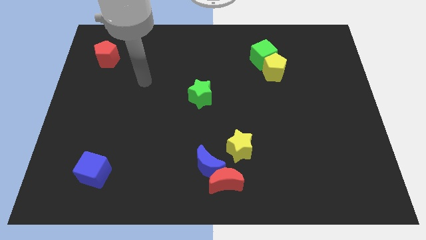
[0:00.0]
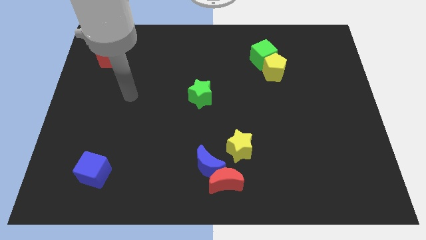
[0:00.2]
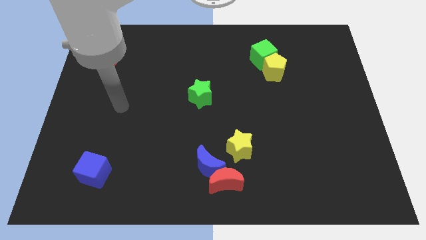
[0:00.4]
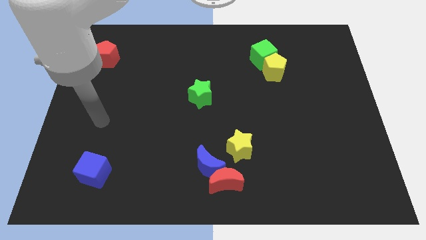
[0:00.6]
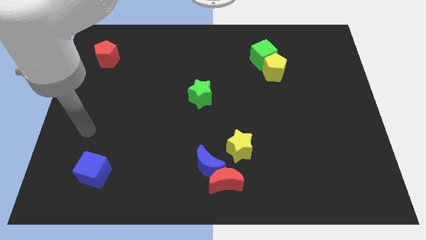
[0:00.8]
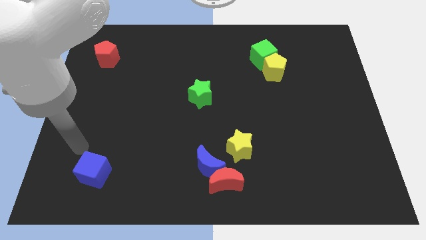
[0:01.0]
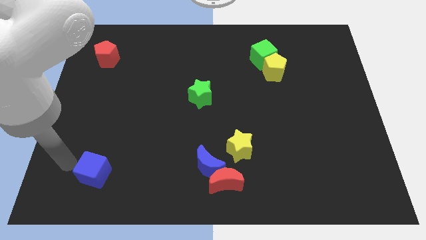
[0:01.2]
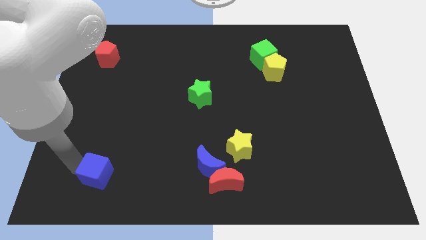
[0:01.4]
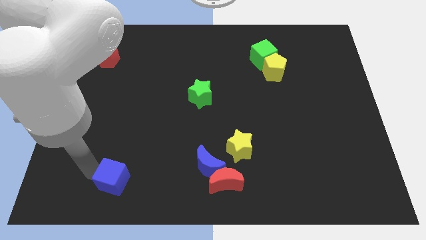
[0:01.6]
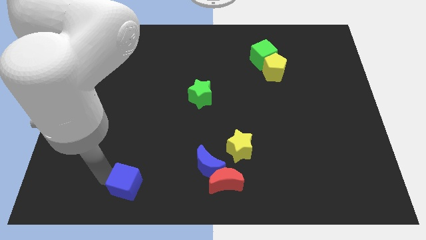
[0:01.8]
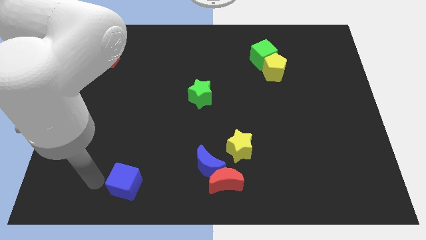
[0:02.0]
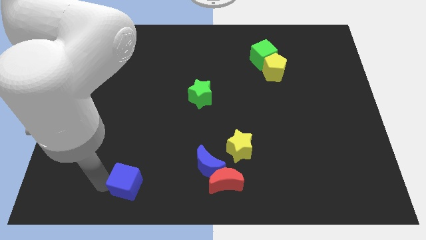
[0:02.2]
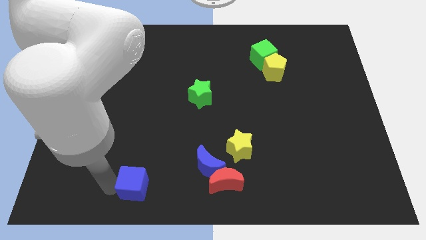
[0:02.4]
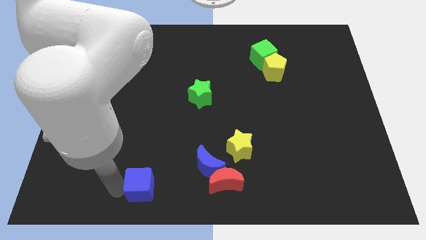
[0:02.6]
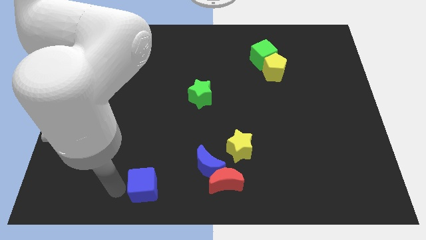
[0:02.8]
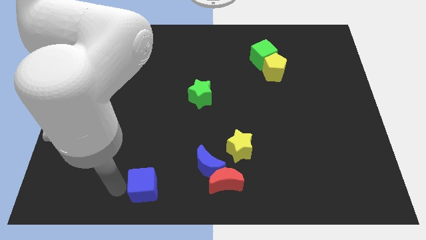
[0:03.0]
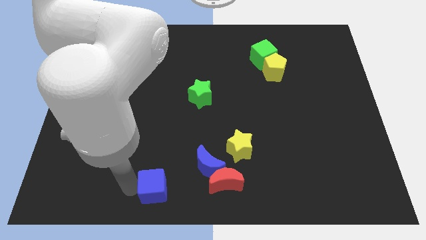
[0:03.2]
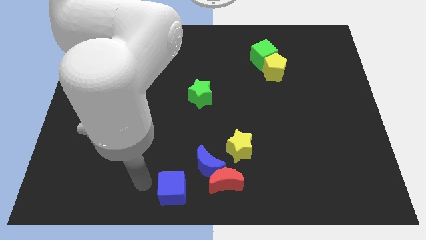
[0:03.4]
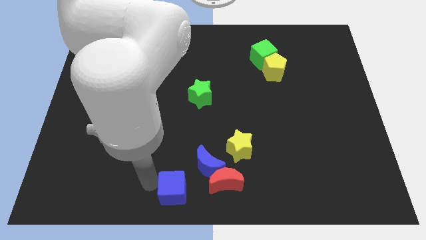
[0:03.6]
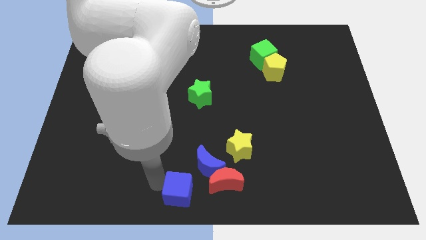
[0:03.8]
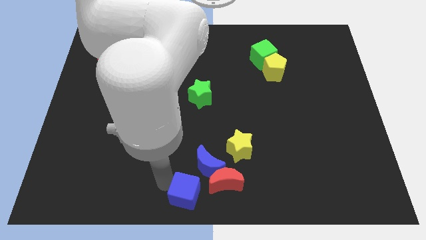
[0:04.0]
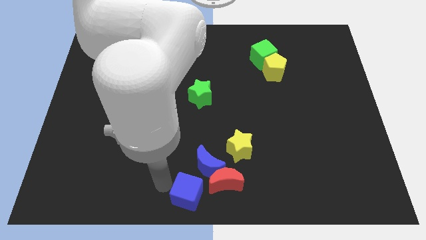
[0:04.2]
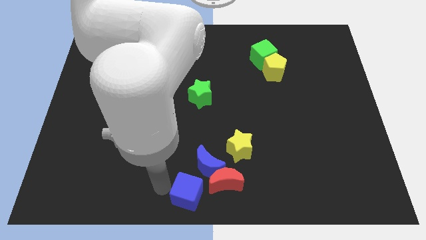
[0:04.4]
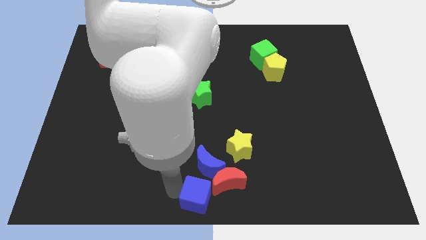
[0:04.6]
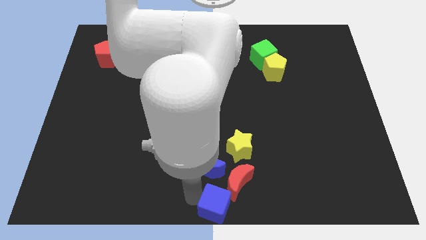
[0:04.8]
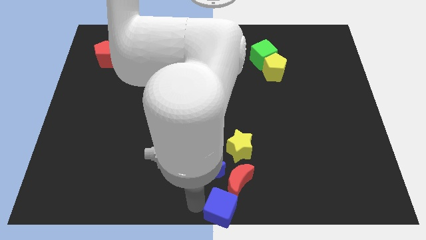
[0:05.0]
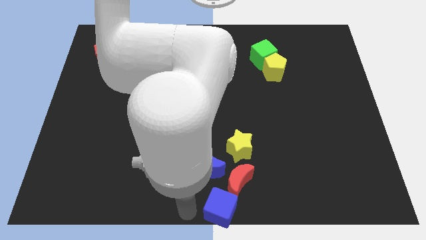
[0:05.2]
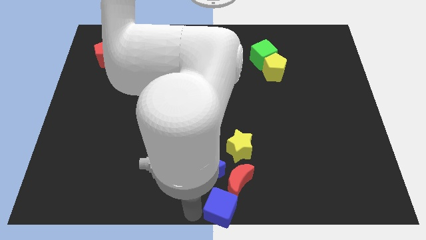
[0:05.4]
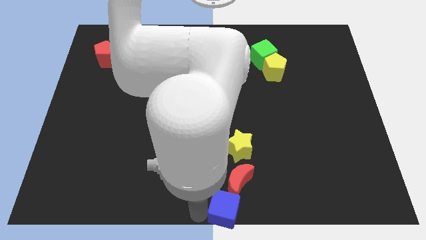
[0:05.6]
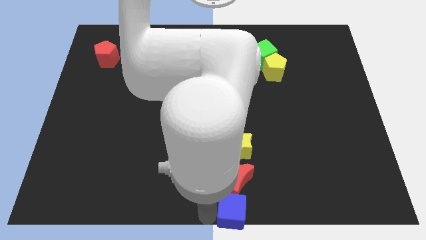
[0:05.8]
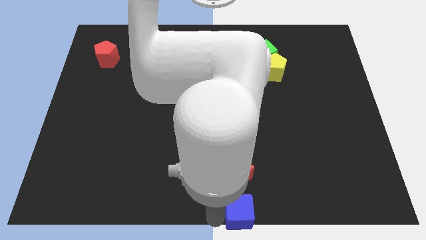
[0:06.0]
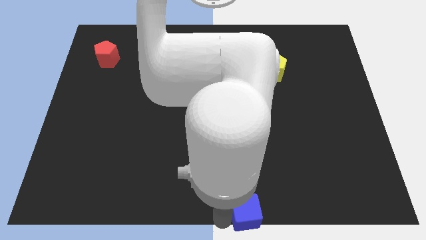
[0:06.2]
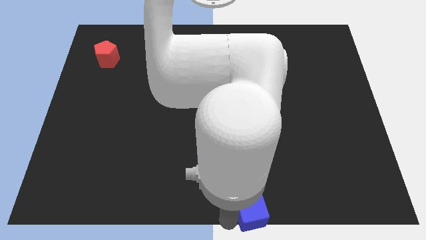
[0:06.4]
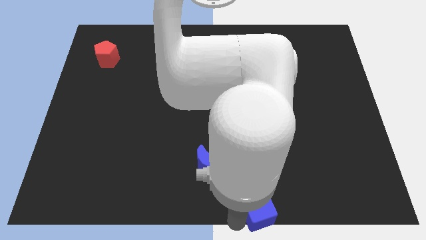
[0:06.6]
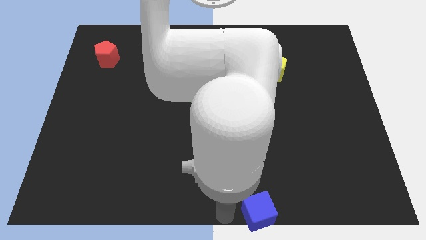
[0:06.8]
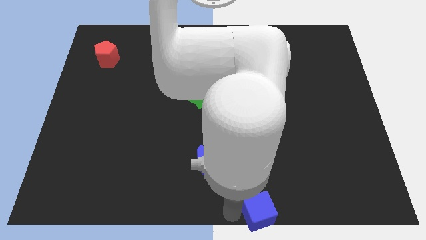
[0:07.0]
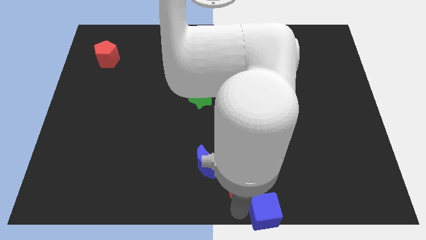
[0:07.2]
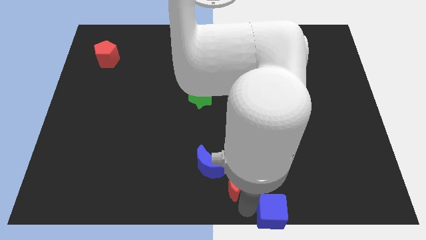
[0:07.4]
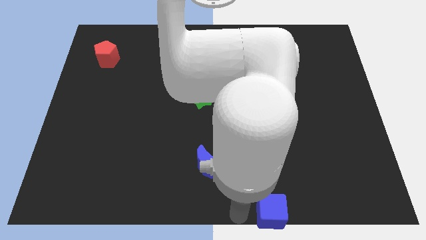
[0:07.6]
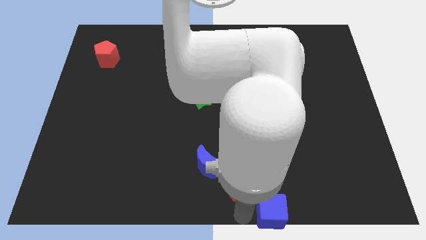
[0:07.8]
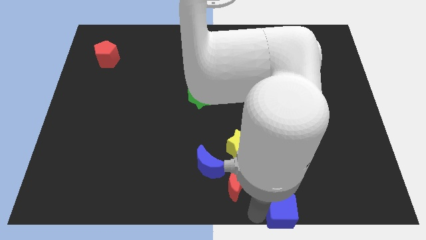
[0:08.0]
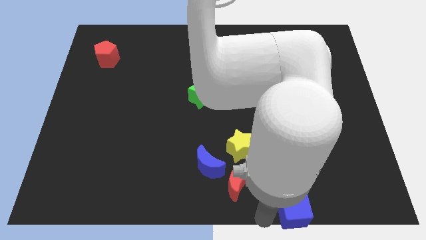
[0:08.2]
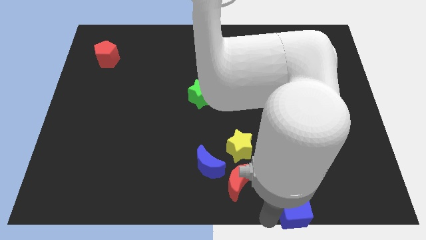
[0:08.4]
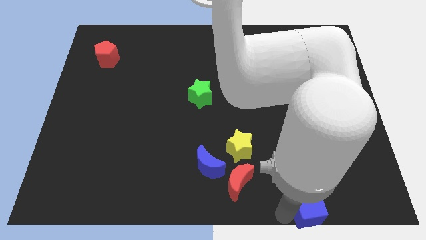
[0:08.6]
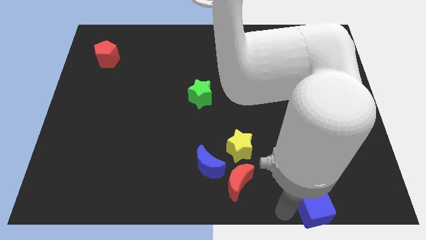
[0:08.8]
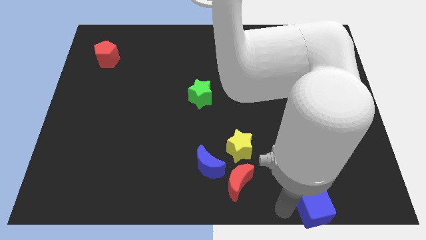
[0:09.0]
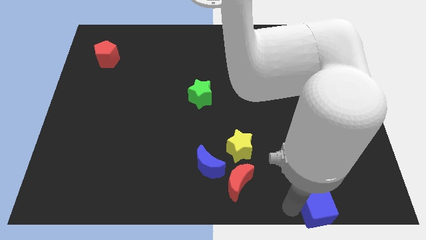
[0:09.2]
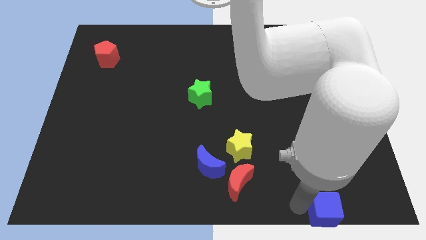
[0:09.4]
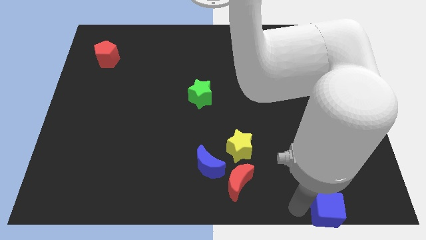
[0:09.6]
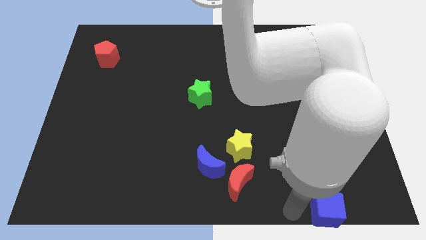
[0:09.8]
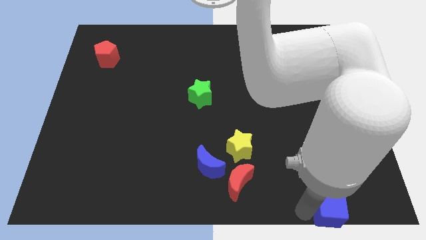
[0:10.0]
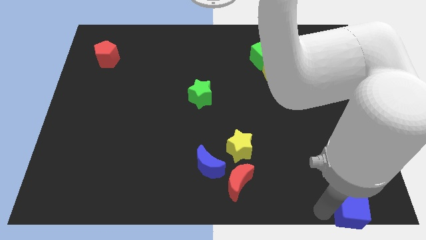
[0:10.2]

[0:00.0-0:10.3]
push the blue cube to the lower right corner

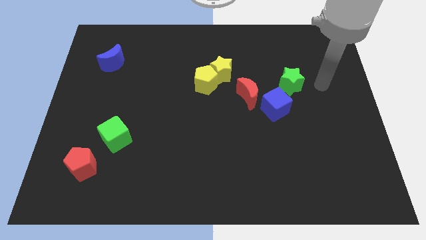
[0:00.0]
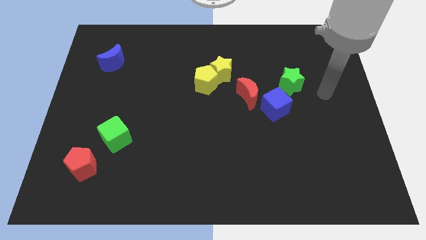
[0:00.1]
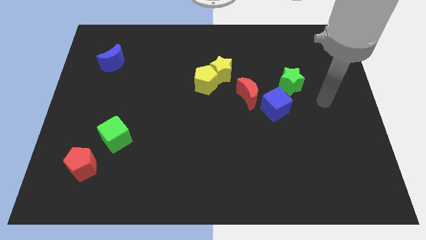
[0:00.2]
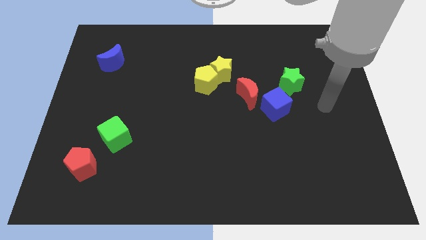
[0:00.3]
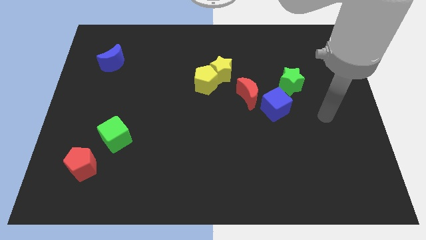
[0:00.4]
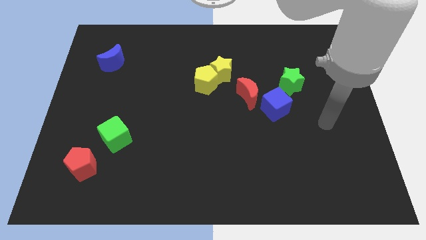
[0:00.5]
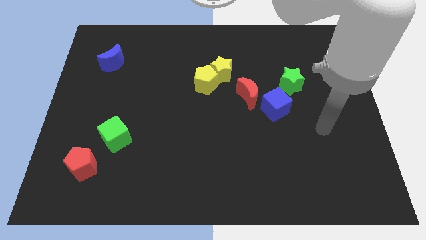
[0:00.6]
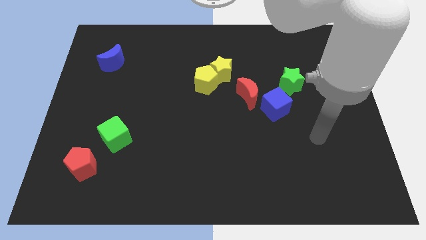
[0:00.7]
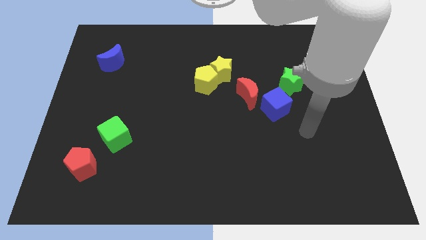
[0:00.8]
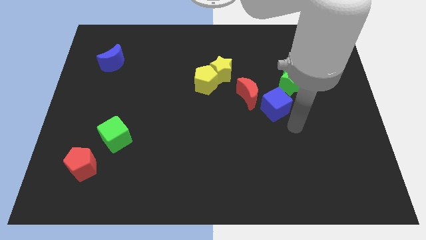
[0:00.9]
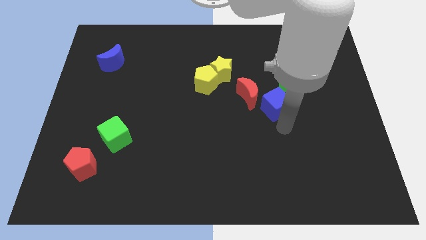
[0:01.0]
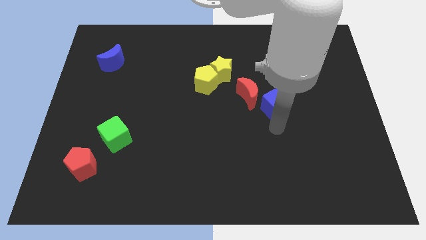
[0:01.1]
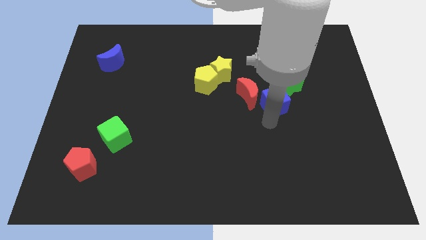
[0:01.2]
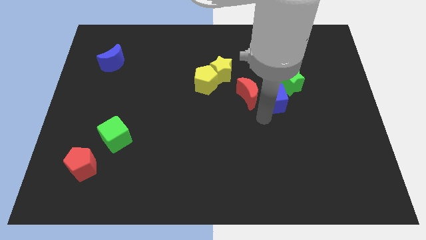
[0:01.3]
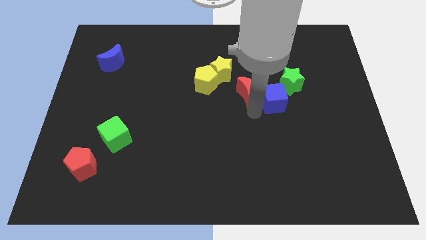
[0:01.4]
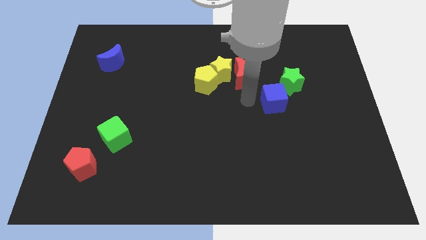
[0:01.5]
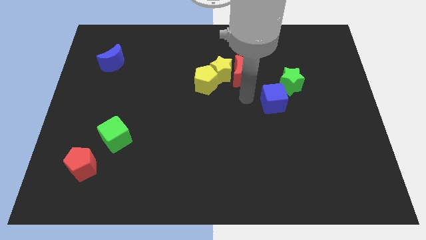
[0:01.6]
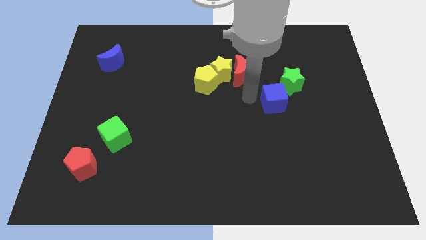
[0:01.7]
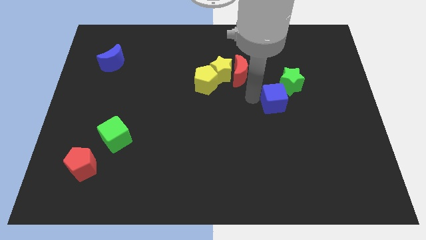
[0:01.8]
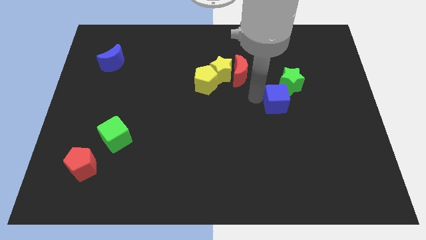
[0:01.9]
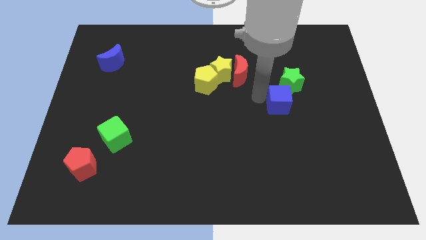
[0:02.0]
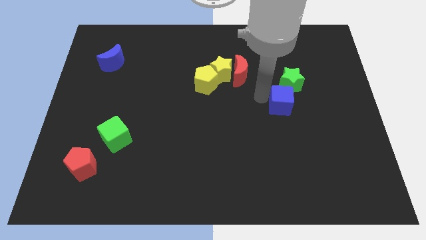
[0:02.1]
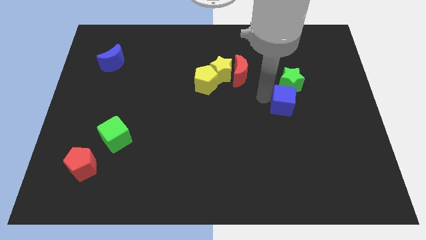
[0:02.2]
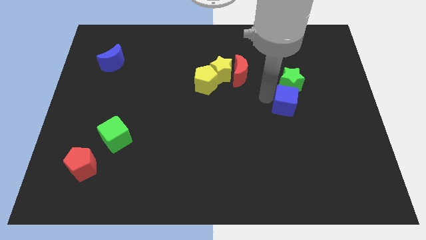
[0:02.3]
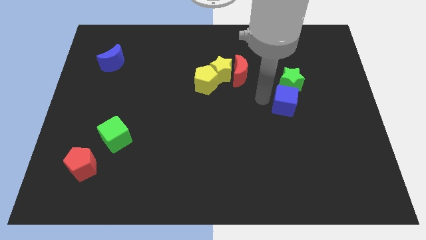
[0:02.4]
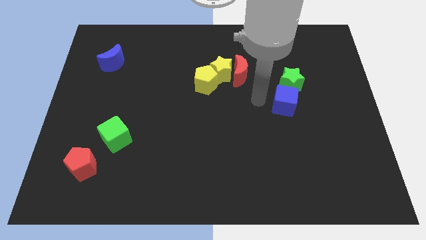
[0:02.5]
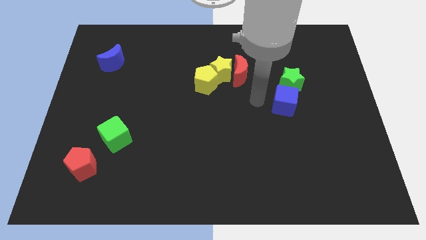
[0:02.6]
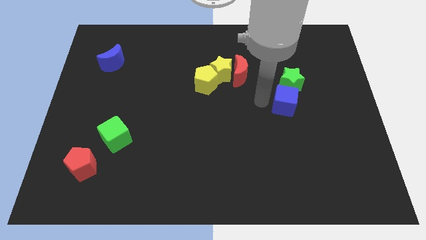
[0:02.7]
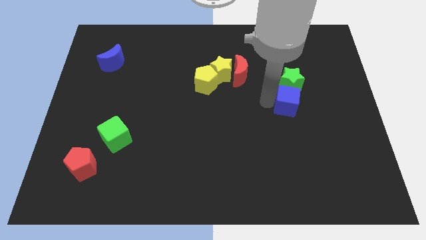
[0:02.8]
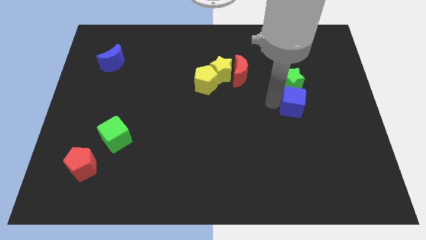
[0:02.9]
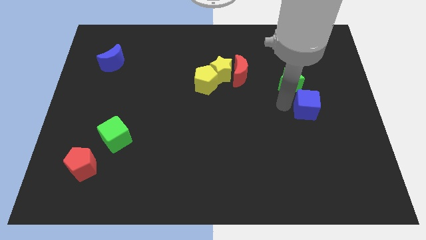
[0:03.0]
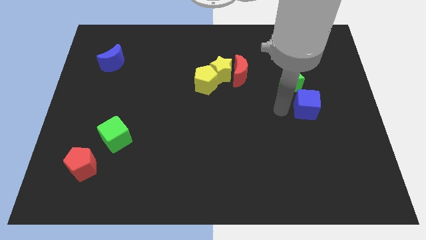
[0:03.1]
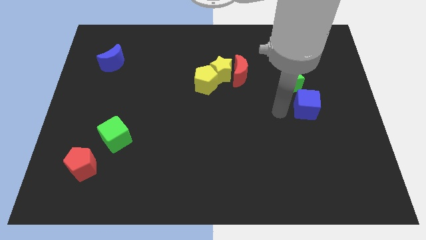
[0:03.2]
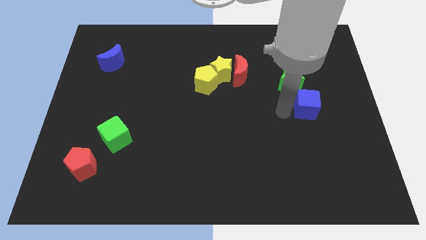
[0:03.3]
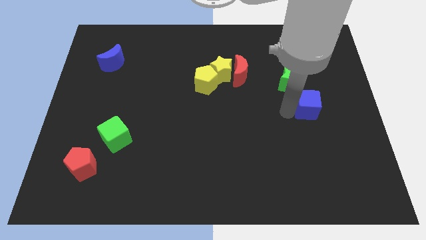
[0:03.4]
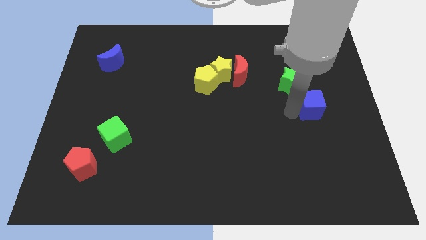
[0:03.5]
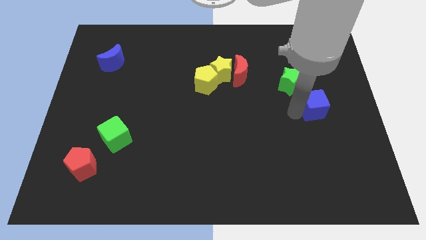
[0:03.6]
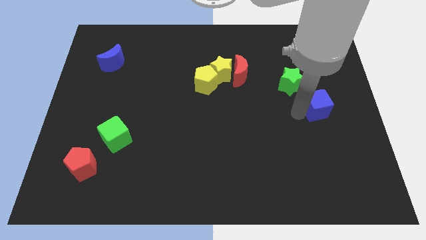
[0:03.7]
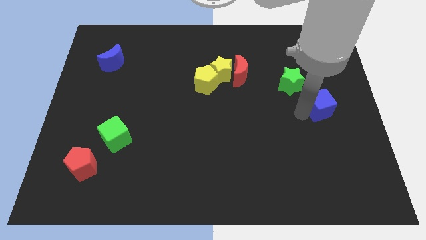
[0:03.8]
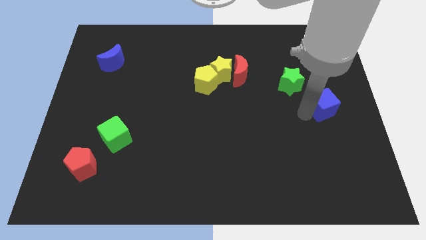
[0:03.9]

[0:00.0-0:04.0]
push the blue cube to the center right
